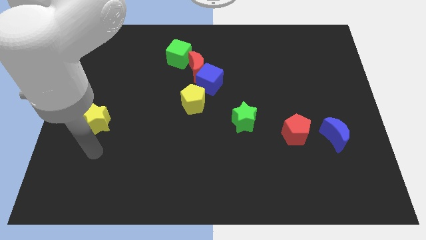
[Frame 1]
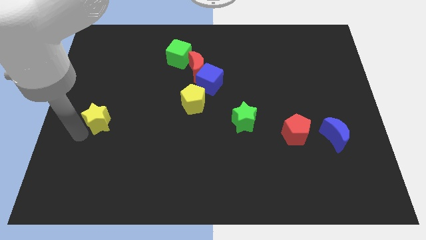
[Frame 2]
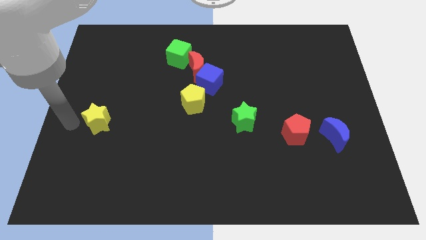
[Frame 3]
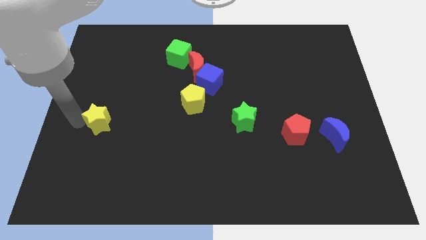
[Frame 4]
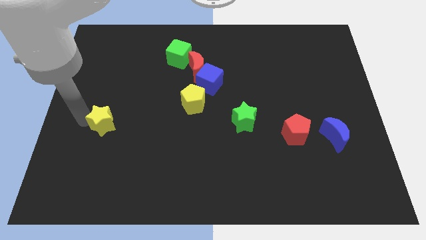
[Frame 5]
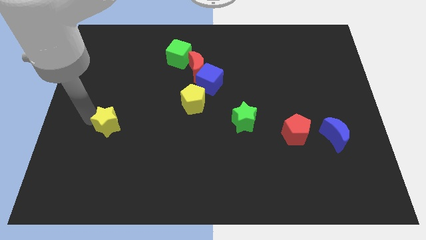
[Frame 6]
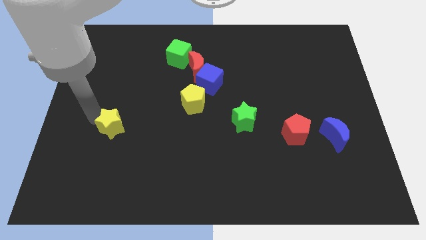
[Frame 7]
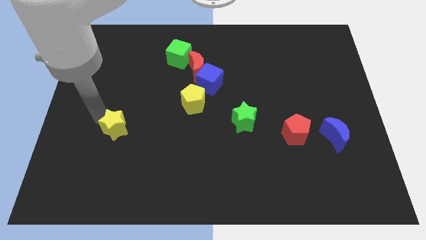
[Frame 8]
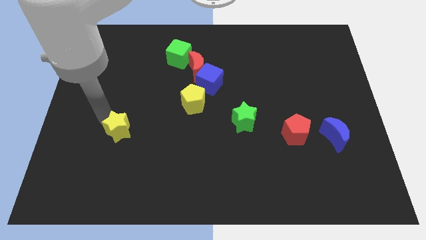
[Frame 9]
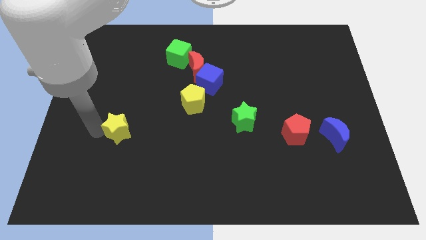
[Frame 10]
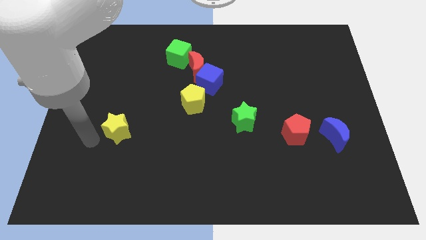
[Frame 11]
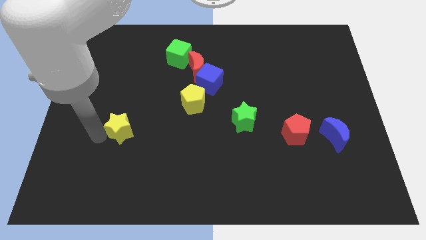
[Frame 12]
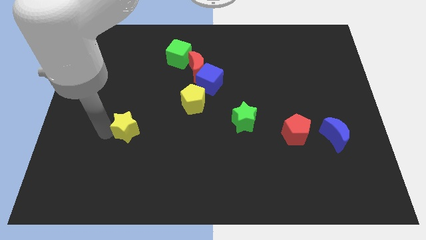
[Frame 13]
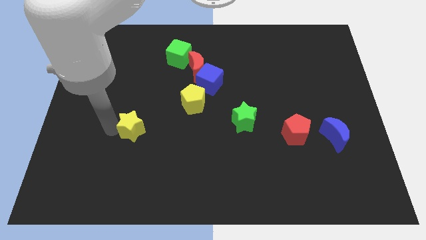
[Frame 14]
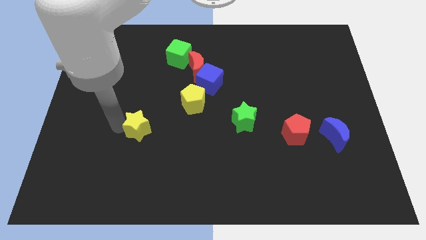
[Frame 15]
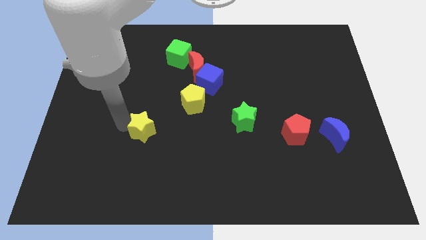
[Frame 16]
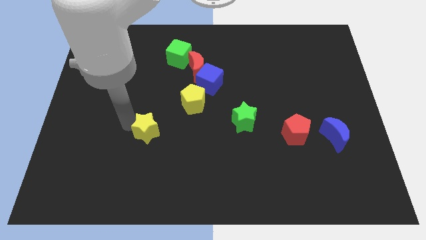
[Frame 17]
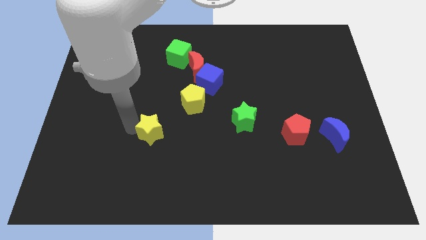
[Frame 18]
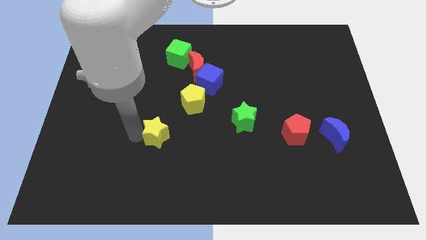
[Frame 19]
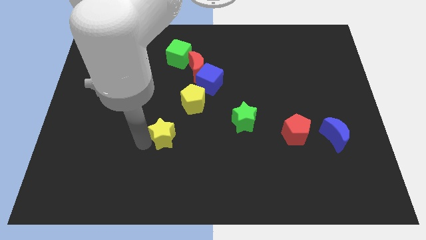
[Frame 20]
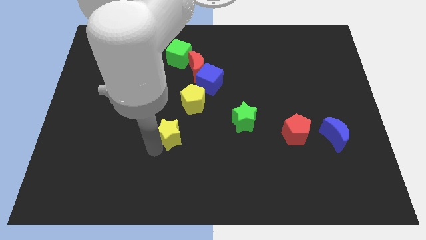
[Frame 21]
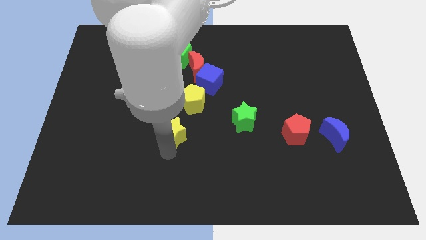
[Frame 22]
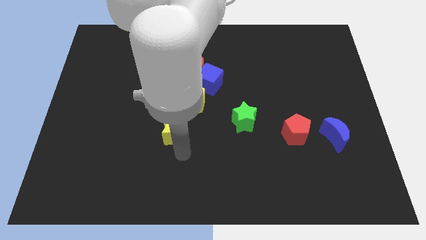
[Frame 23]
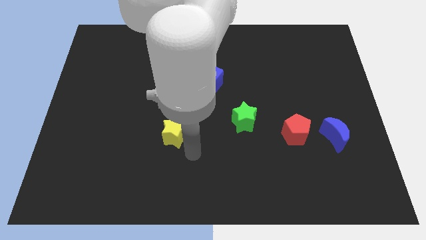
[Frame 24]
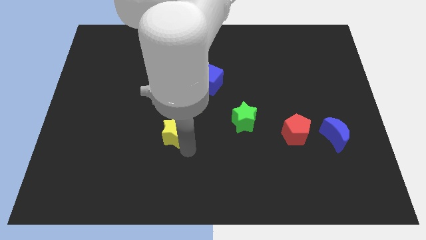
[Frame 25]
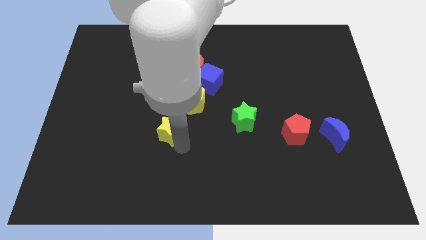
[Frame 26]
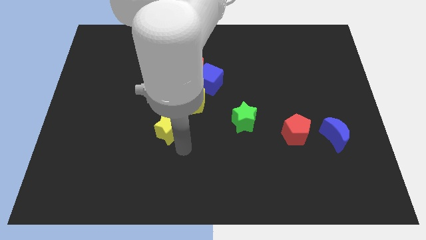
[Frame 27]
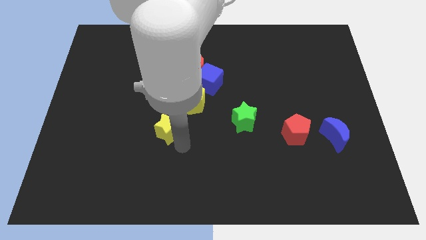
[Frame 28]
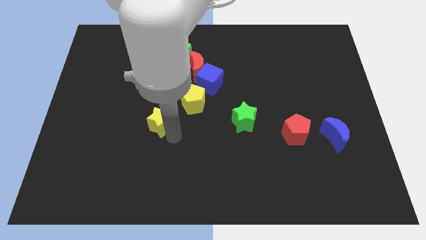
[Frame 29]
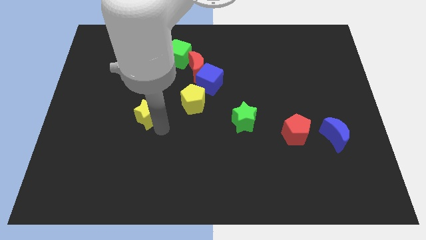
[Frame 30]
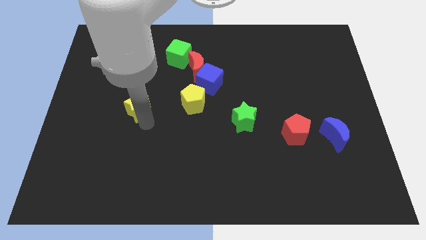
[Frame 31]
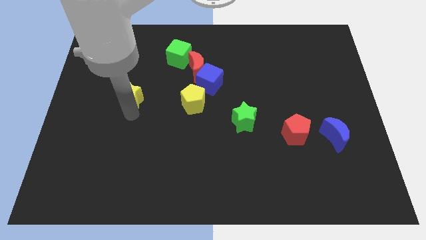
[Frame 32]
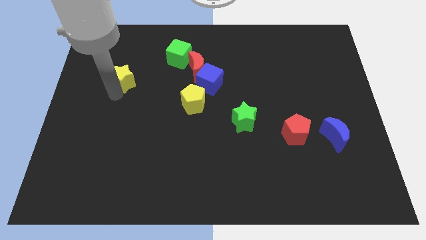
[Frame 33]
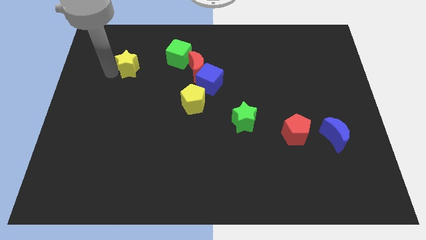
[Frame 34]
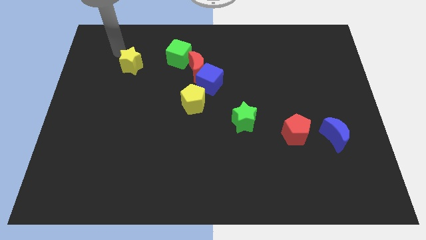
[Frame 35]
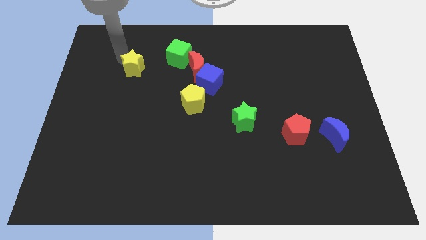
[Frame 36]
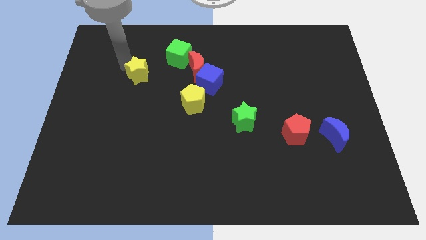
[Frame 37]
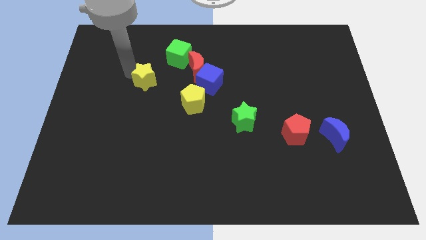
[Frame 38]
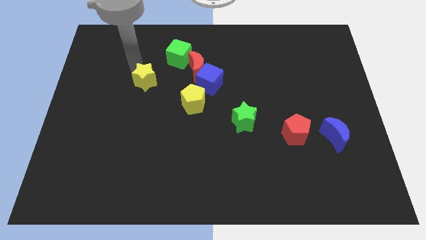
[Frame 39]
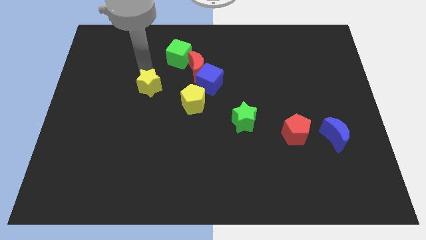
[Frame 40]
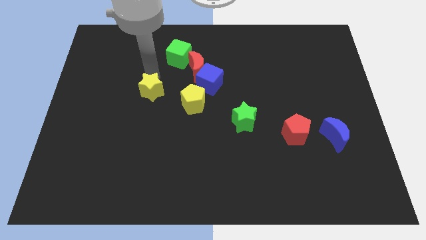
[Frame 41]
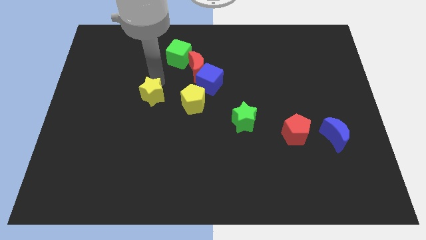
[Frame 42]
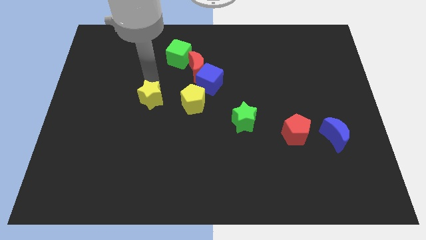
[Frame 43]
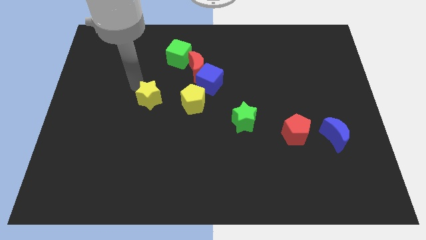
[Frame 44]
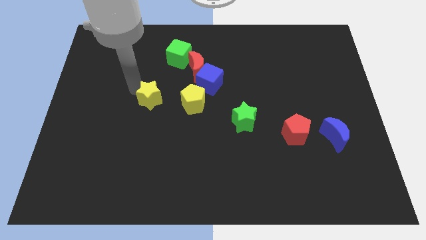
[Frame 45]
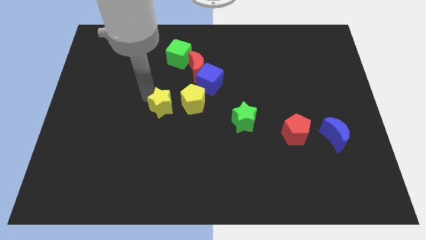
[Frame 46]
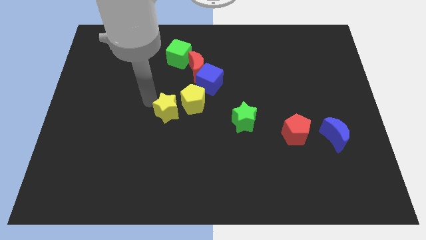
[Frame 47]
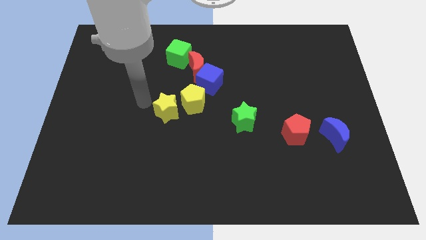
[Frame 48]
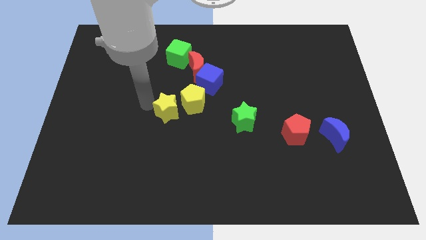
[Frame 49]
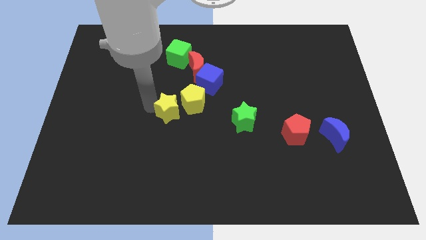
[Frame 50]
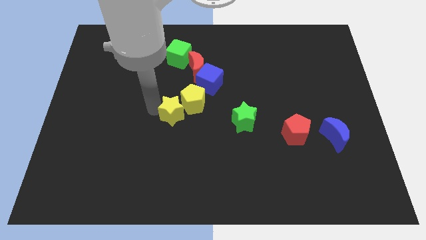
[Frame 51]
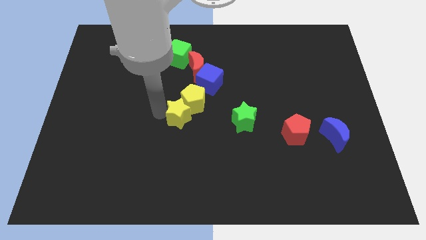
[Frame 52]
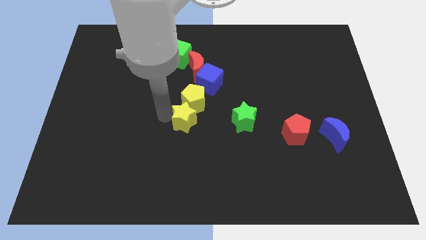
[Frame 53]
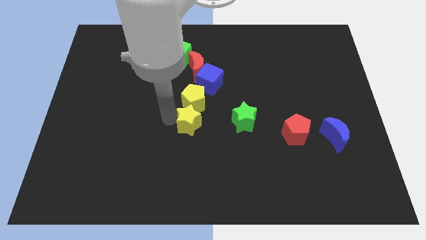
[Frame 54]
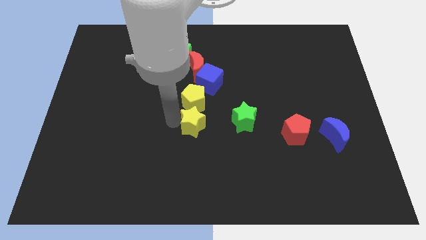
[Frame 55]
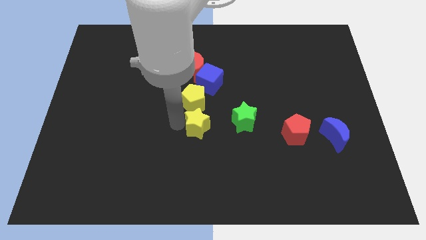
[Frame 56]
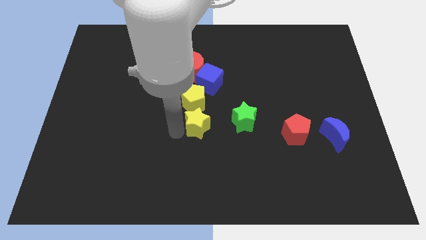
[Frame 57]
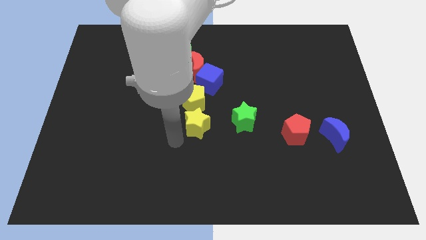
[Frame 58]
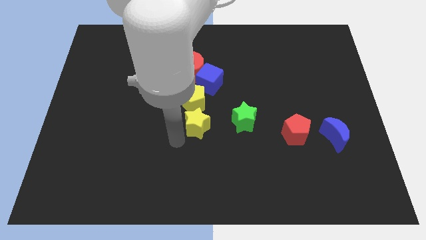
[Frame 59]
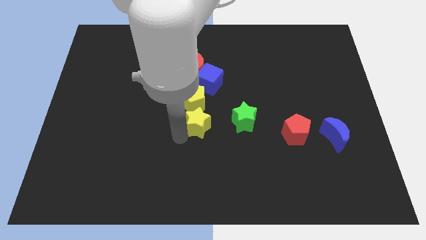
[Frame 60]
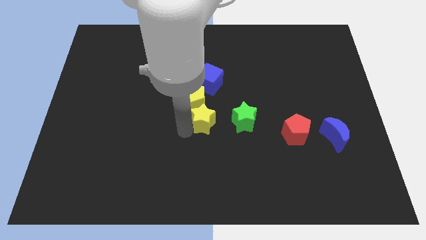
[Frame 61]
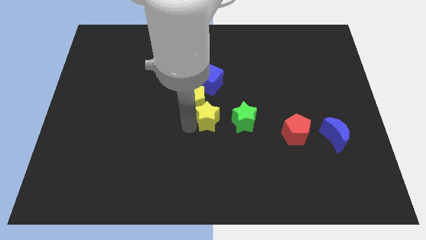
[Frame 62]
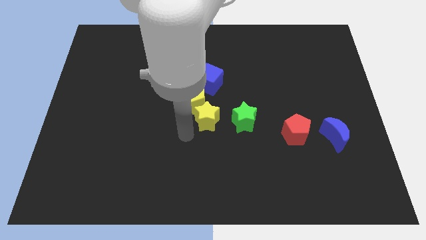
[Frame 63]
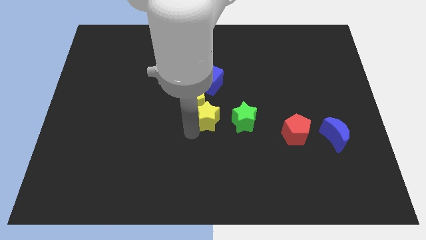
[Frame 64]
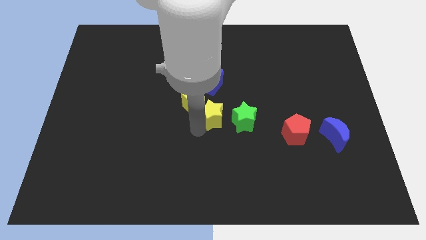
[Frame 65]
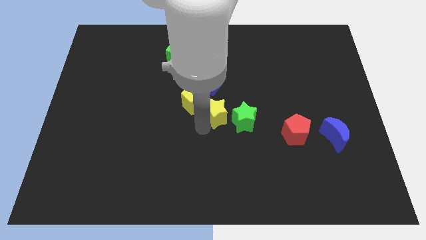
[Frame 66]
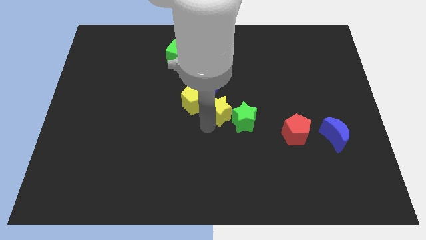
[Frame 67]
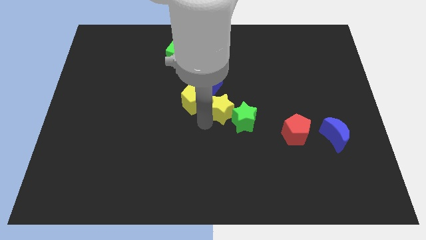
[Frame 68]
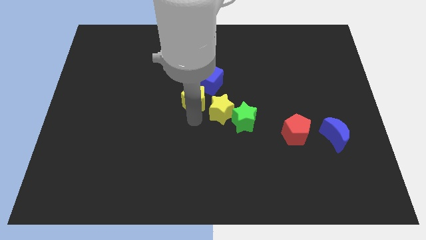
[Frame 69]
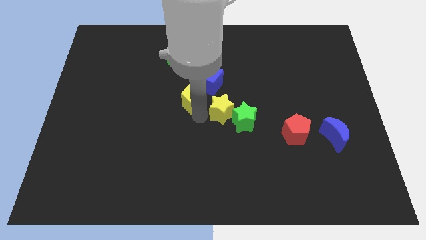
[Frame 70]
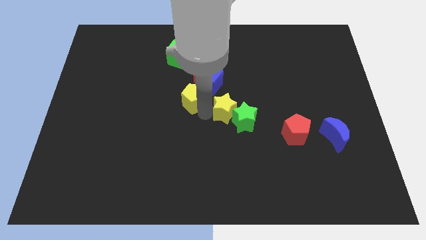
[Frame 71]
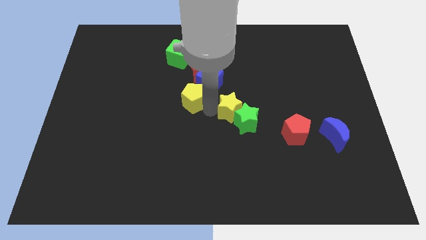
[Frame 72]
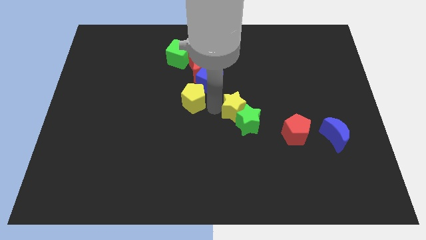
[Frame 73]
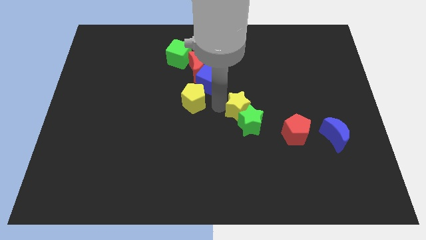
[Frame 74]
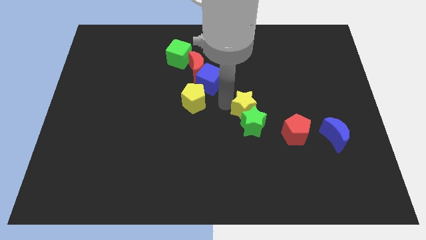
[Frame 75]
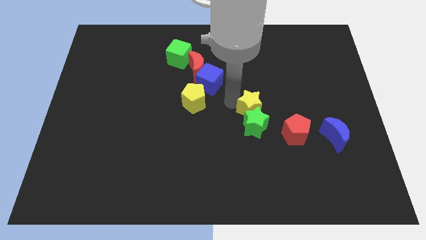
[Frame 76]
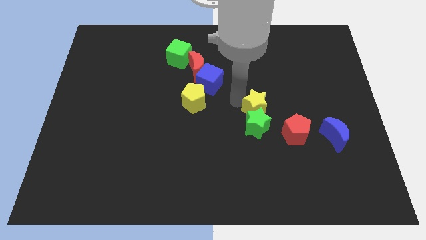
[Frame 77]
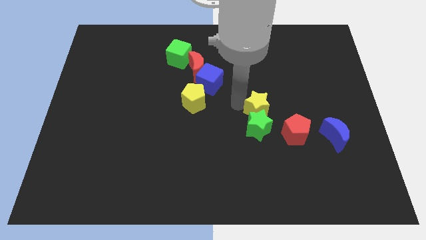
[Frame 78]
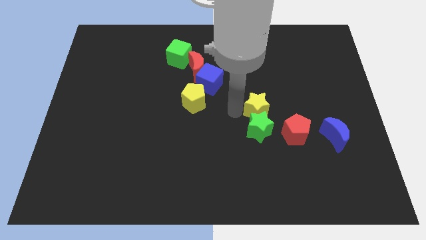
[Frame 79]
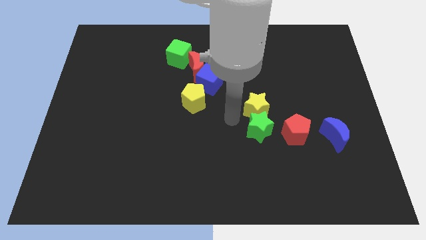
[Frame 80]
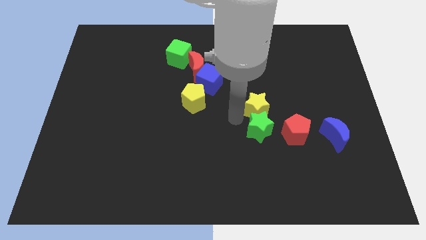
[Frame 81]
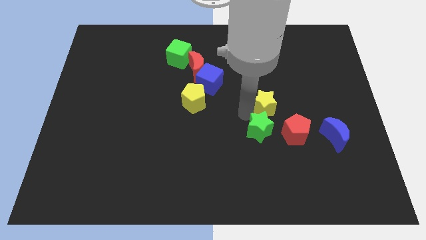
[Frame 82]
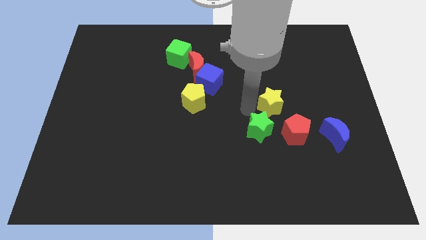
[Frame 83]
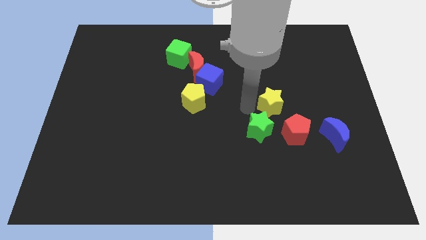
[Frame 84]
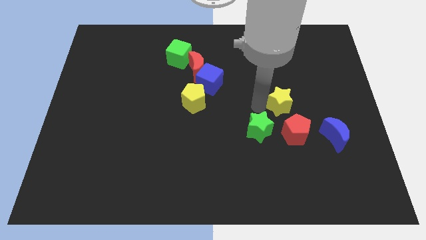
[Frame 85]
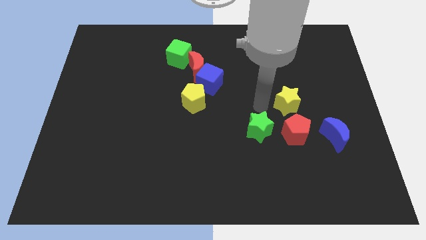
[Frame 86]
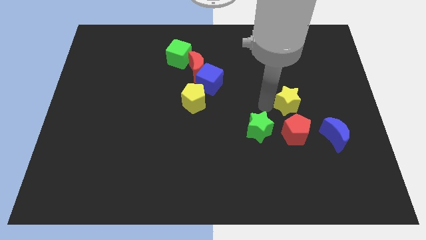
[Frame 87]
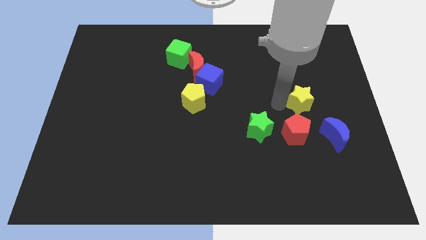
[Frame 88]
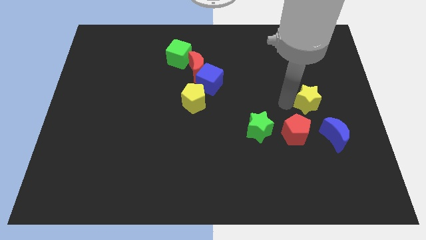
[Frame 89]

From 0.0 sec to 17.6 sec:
move the yellow star above the blue moon
